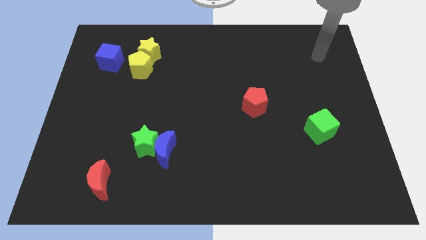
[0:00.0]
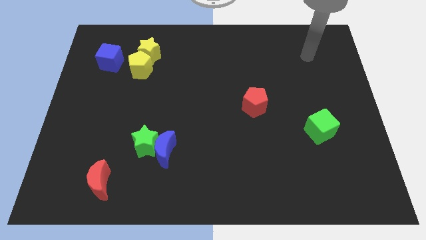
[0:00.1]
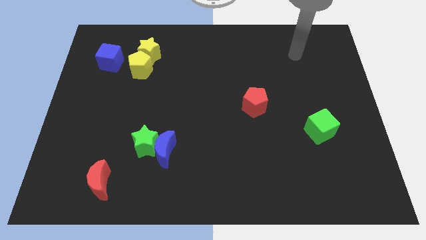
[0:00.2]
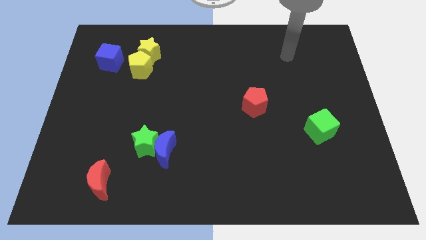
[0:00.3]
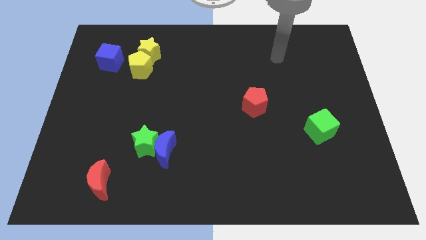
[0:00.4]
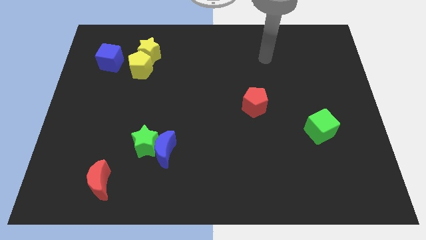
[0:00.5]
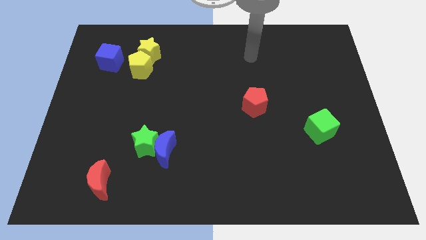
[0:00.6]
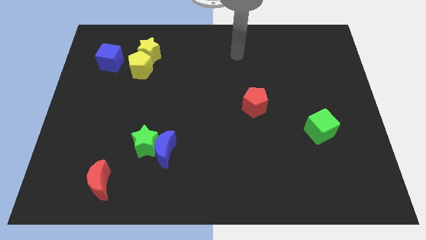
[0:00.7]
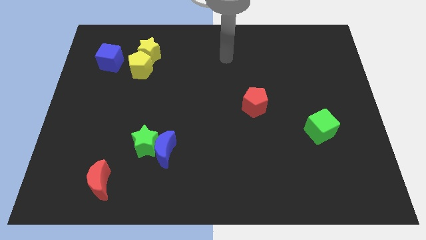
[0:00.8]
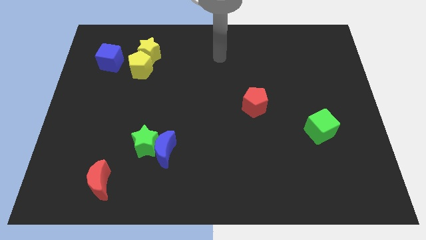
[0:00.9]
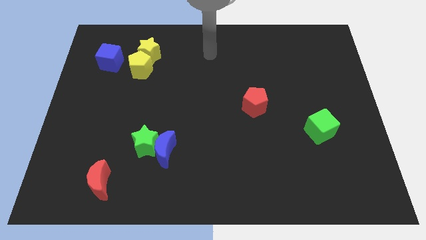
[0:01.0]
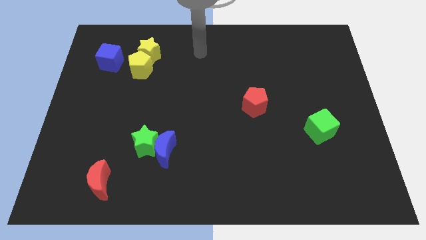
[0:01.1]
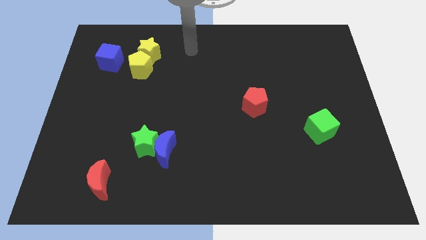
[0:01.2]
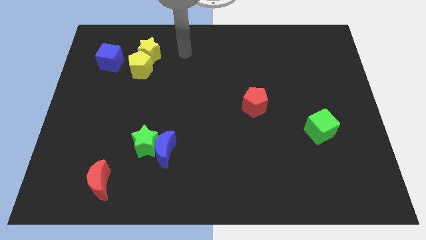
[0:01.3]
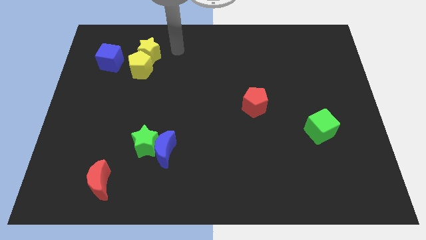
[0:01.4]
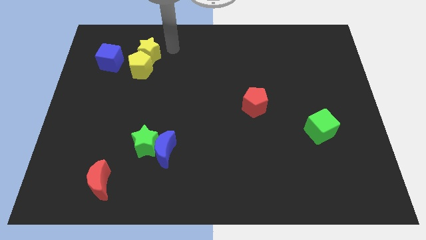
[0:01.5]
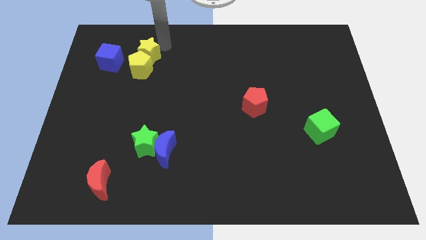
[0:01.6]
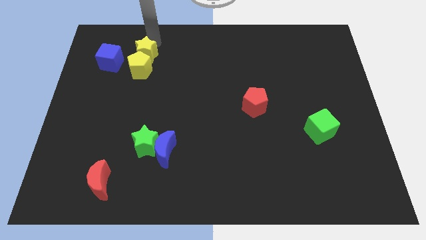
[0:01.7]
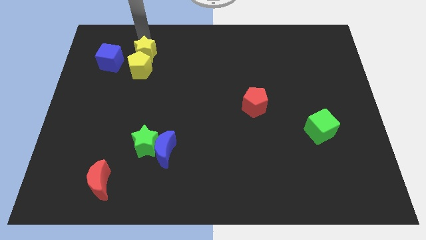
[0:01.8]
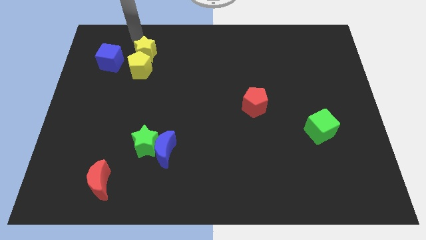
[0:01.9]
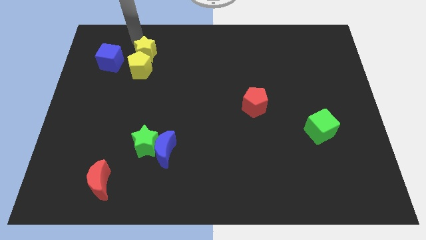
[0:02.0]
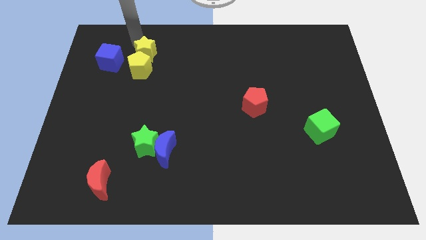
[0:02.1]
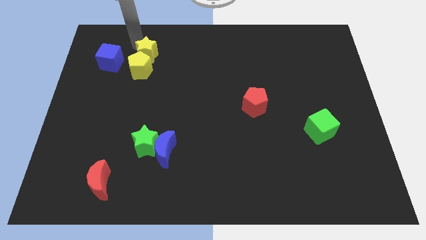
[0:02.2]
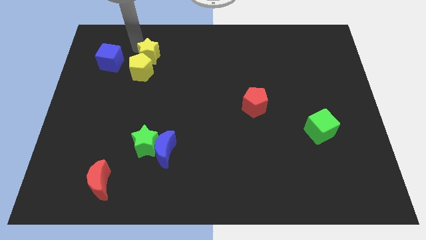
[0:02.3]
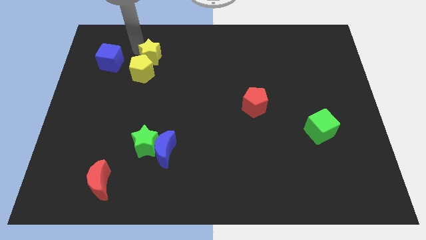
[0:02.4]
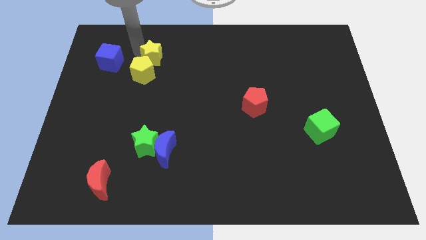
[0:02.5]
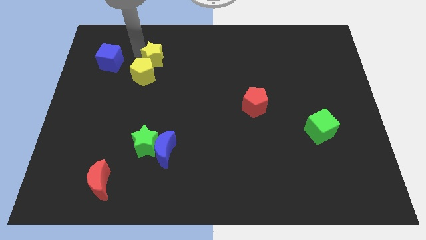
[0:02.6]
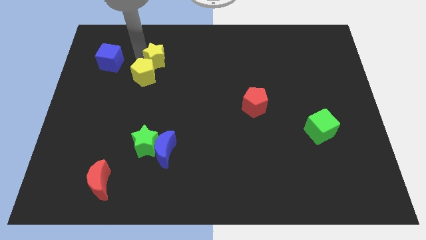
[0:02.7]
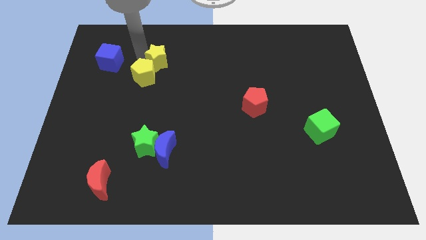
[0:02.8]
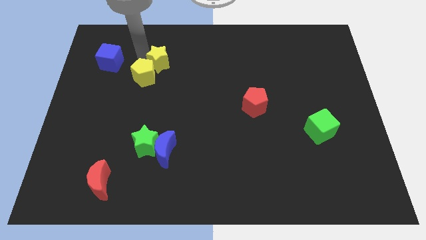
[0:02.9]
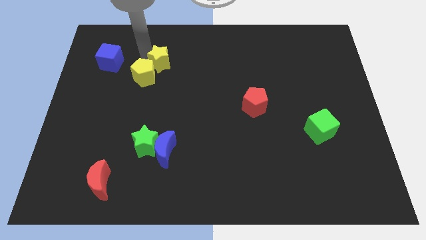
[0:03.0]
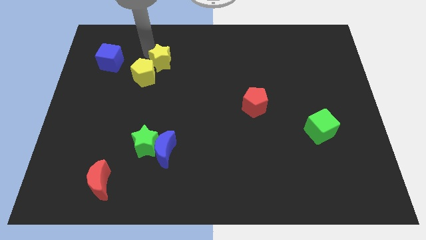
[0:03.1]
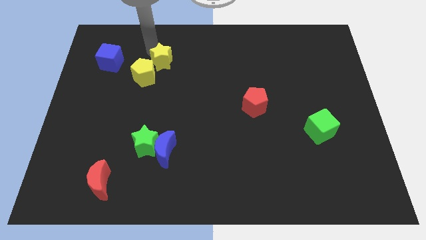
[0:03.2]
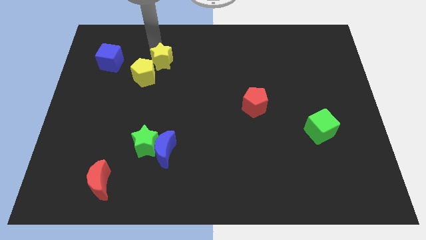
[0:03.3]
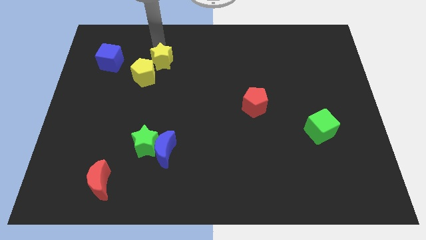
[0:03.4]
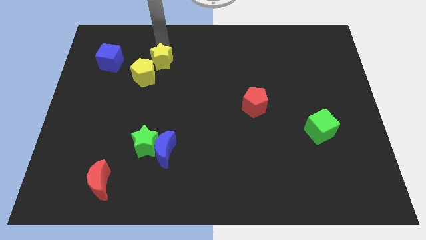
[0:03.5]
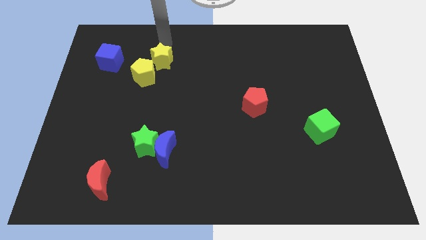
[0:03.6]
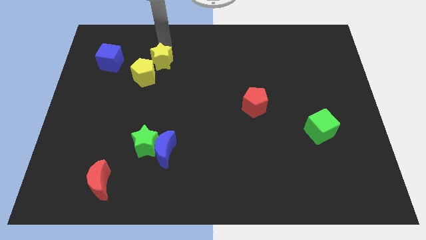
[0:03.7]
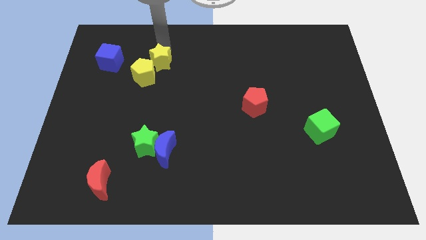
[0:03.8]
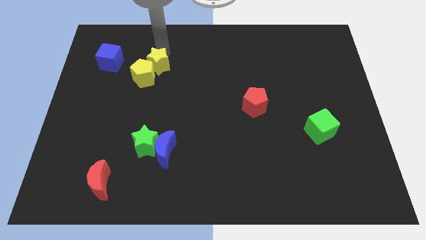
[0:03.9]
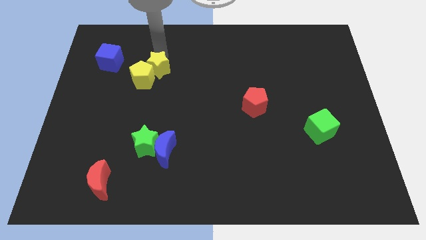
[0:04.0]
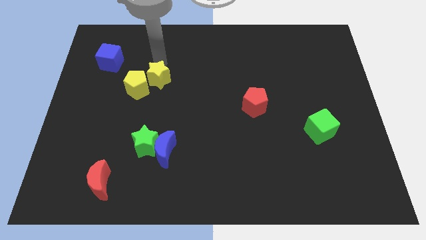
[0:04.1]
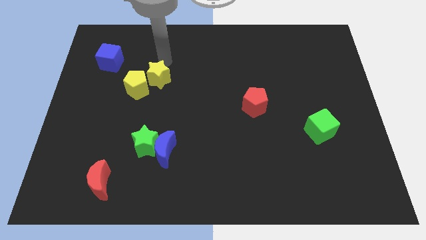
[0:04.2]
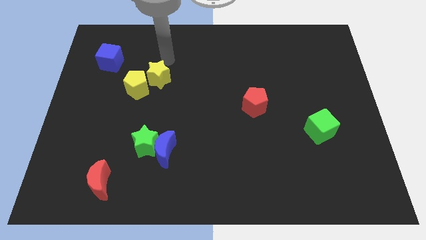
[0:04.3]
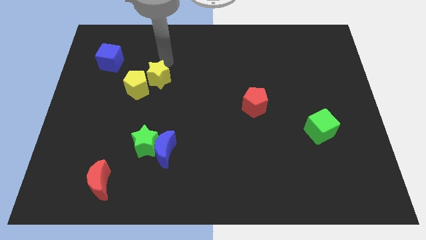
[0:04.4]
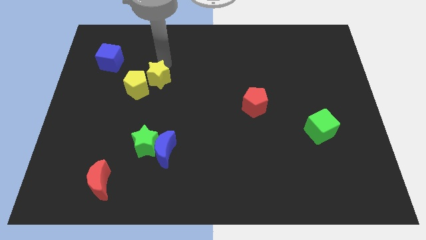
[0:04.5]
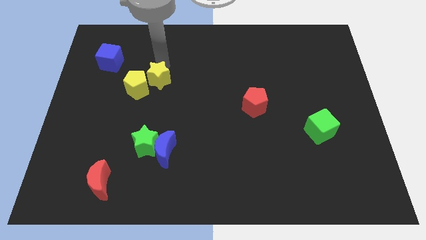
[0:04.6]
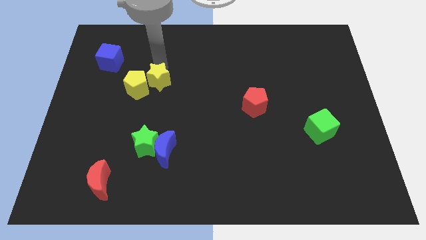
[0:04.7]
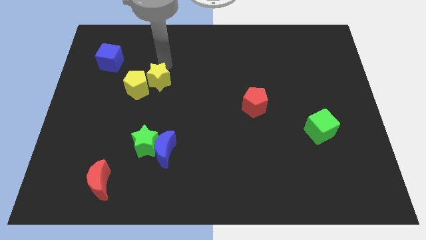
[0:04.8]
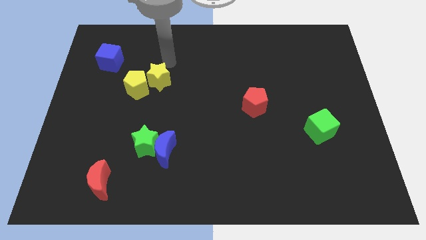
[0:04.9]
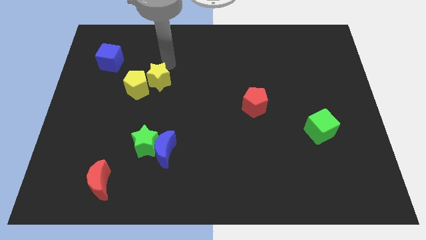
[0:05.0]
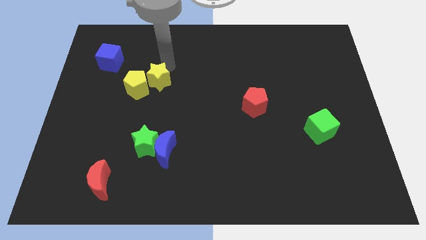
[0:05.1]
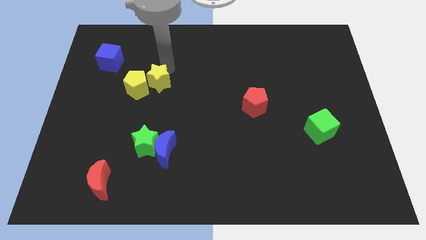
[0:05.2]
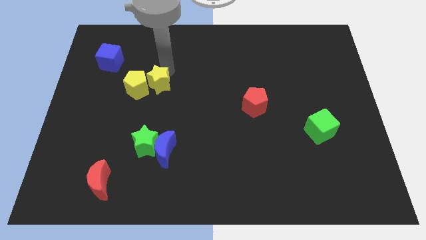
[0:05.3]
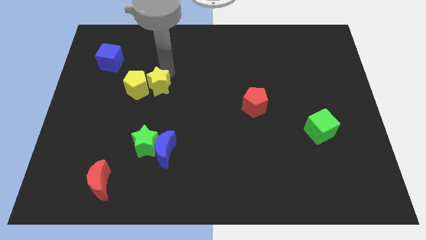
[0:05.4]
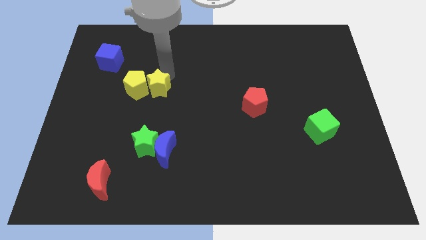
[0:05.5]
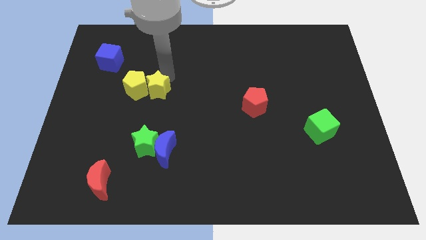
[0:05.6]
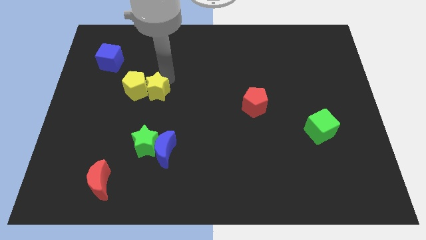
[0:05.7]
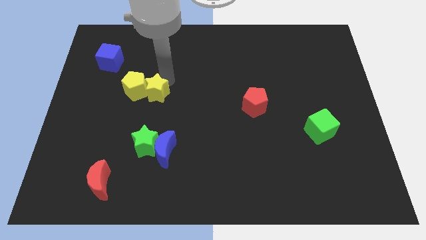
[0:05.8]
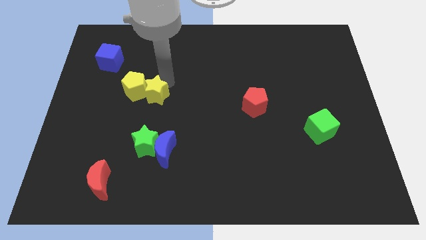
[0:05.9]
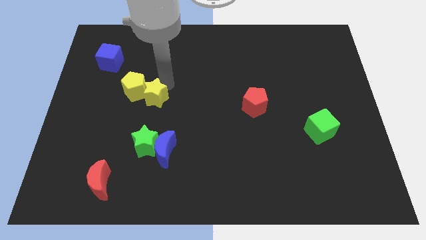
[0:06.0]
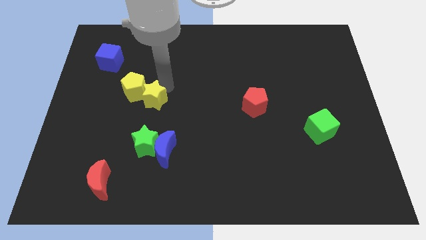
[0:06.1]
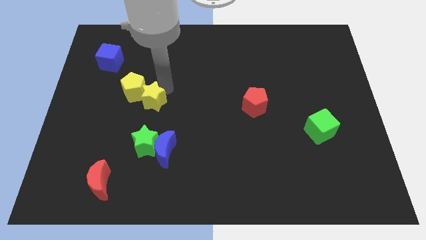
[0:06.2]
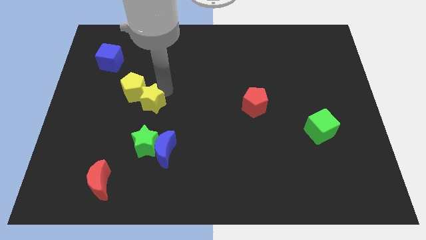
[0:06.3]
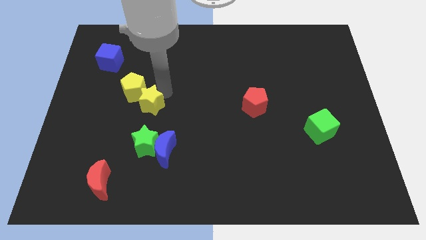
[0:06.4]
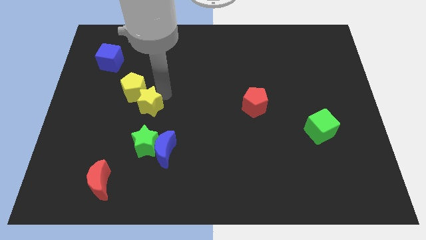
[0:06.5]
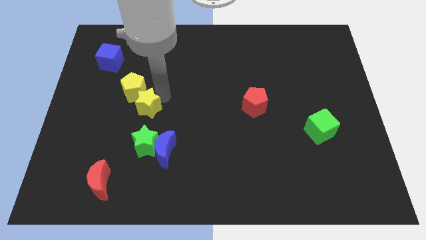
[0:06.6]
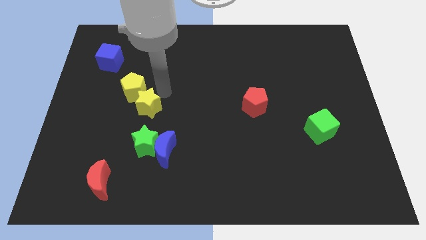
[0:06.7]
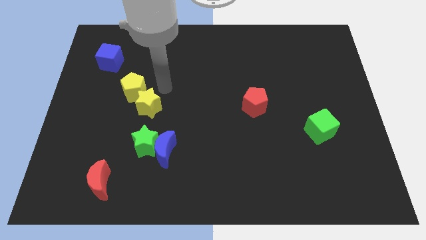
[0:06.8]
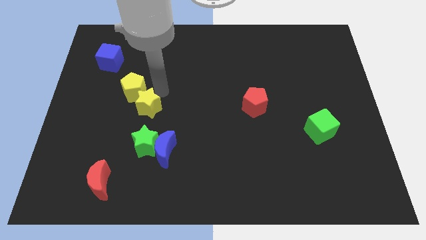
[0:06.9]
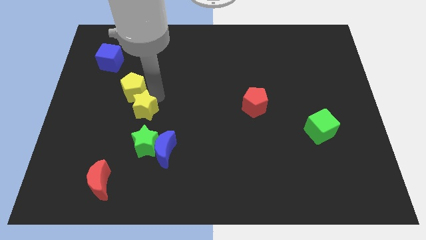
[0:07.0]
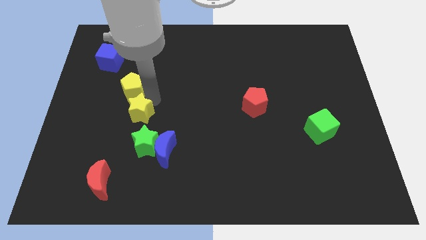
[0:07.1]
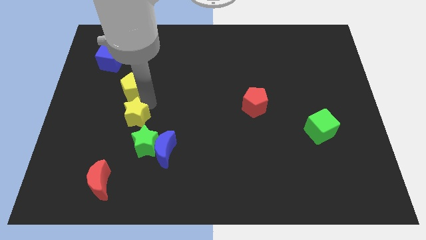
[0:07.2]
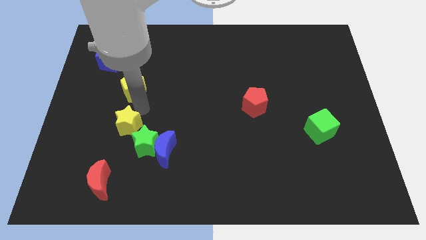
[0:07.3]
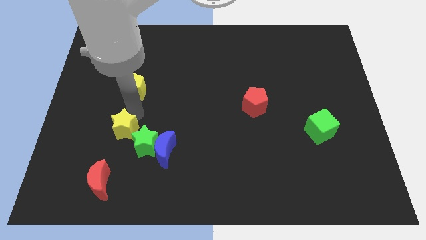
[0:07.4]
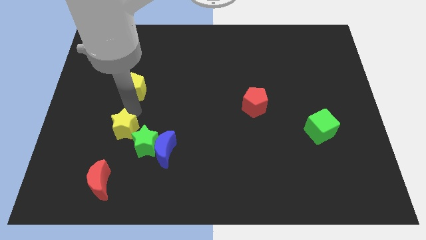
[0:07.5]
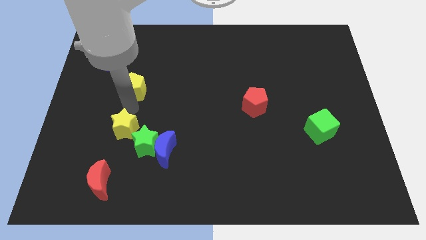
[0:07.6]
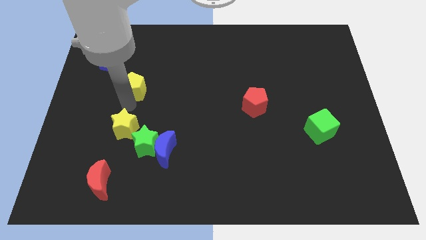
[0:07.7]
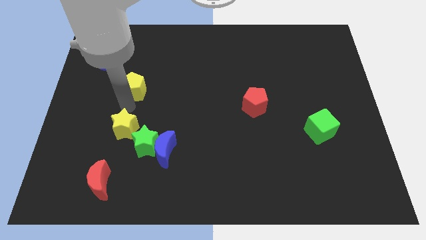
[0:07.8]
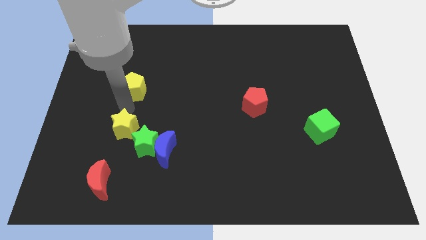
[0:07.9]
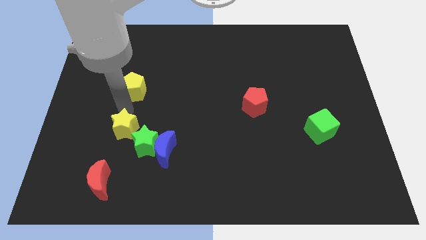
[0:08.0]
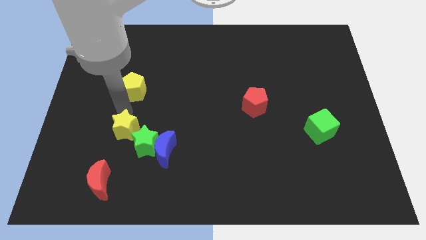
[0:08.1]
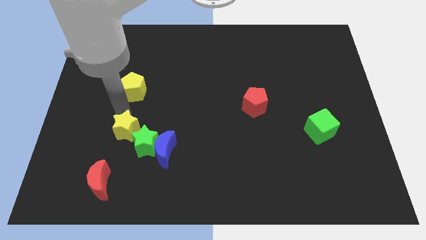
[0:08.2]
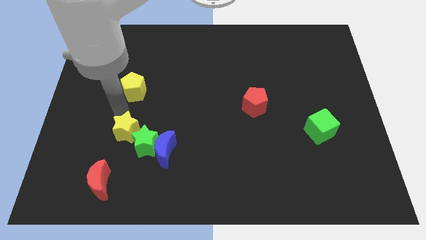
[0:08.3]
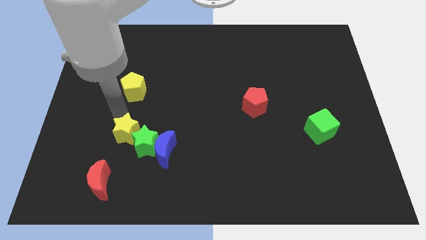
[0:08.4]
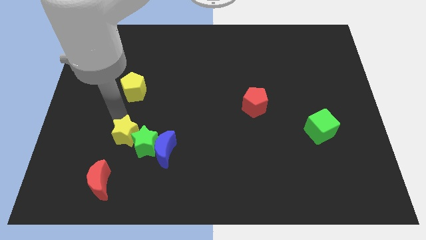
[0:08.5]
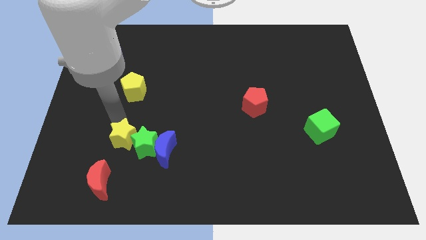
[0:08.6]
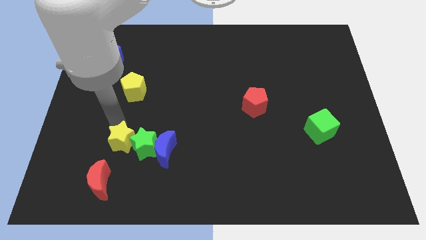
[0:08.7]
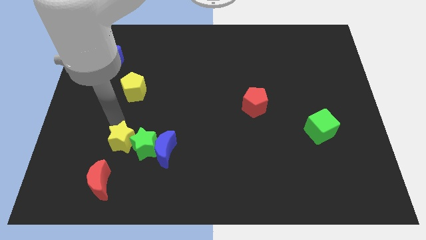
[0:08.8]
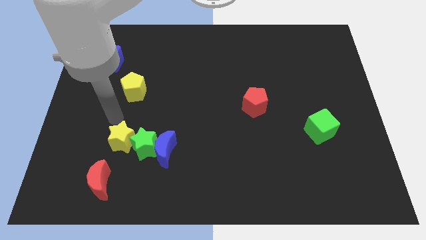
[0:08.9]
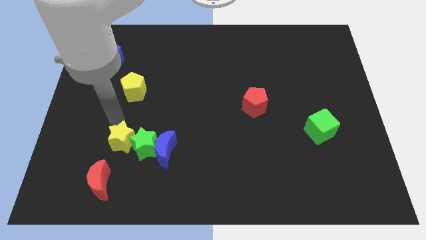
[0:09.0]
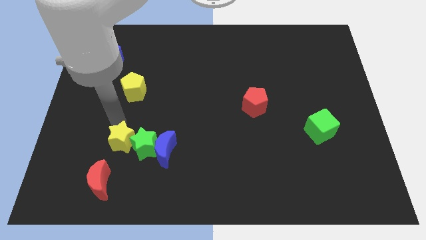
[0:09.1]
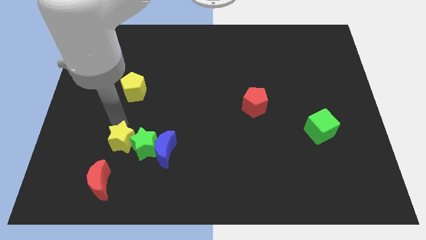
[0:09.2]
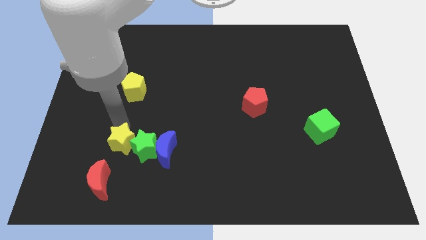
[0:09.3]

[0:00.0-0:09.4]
put the yellow star to the top right of the red moon
